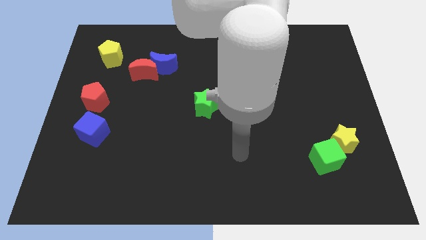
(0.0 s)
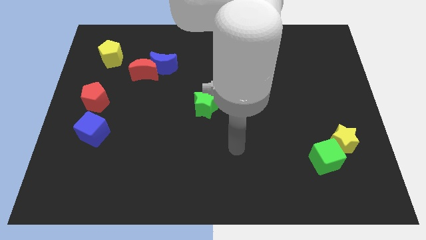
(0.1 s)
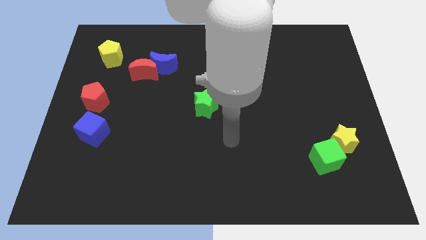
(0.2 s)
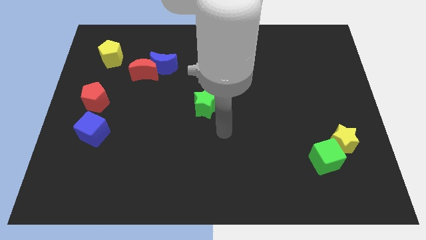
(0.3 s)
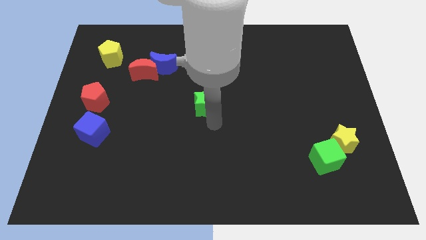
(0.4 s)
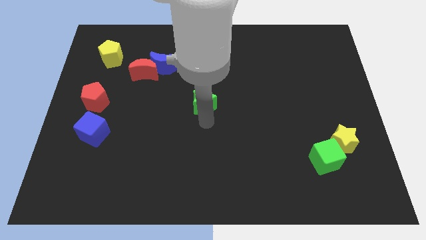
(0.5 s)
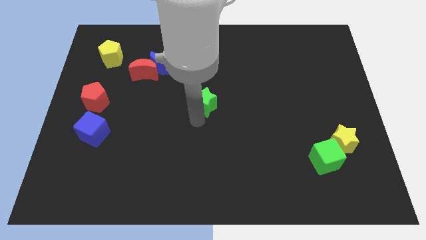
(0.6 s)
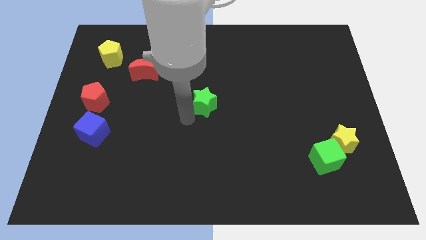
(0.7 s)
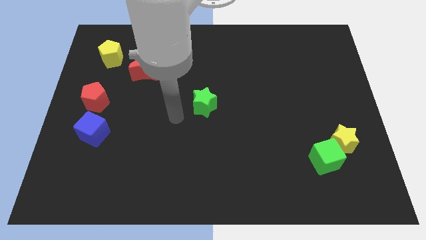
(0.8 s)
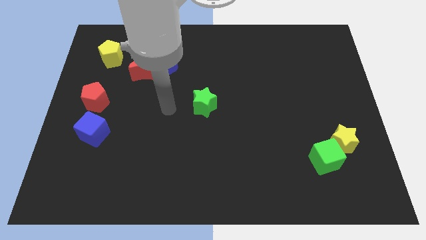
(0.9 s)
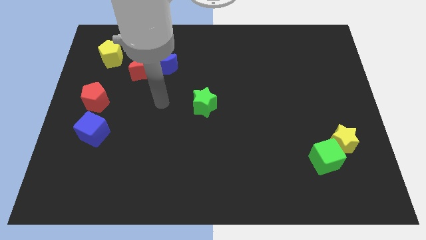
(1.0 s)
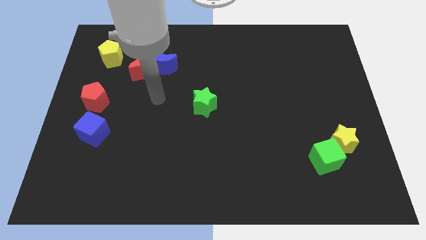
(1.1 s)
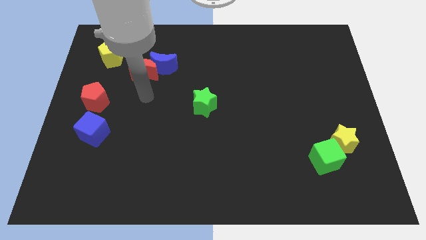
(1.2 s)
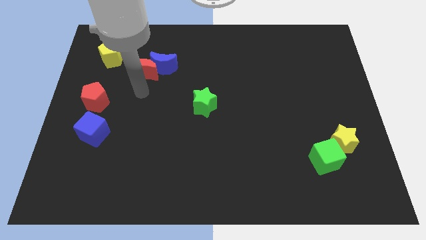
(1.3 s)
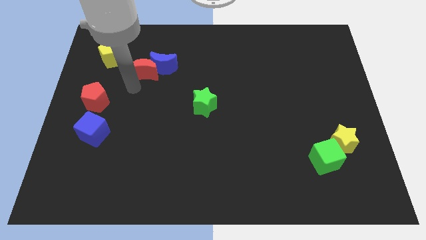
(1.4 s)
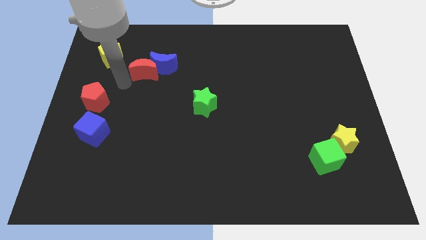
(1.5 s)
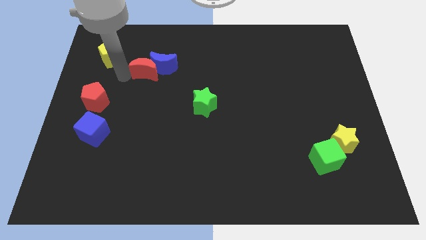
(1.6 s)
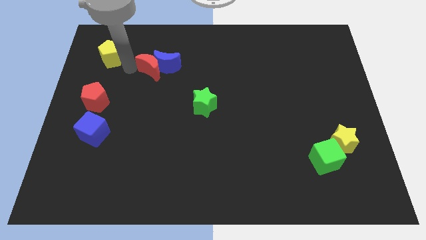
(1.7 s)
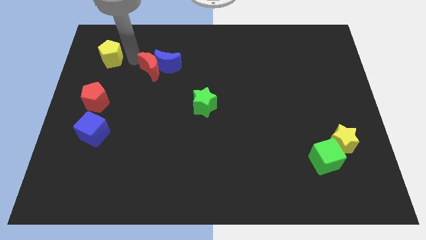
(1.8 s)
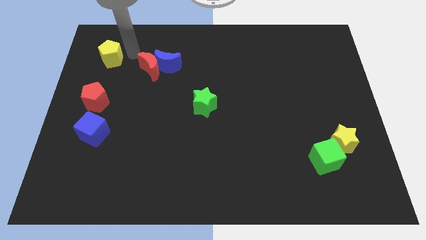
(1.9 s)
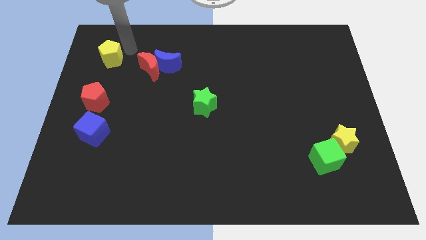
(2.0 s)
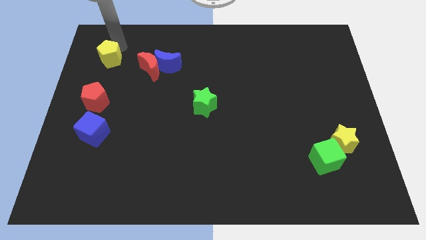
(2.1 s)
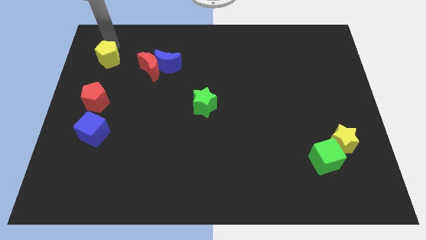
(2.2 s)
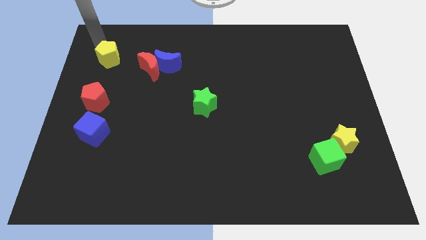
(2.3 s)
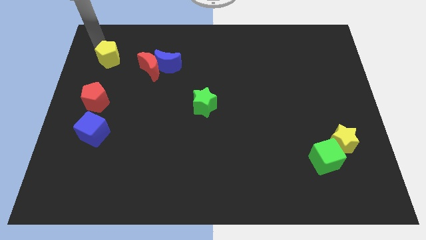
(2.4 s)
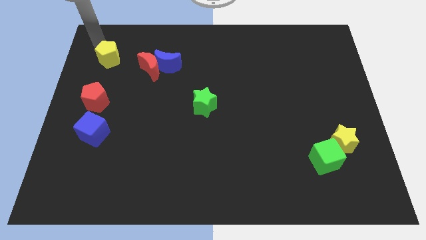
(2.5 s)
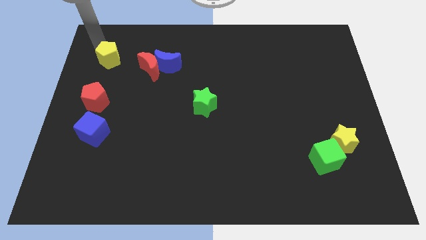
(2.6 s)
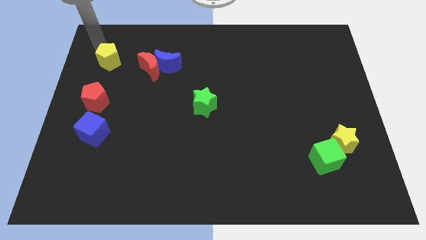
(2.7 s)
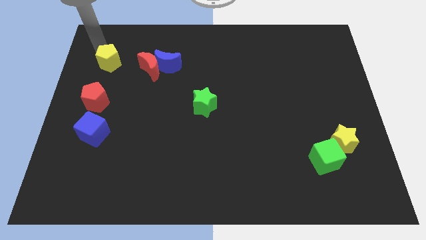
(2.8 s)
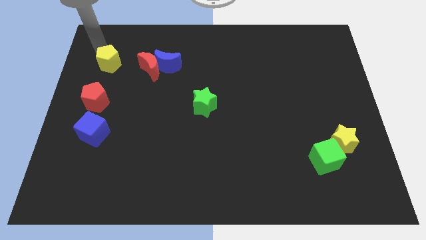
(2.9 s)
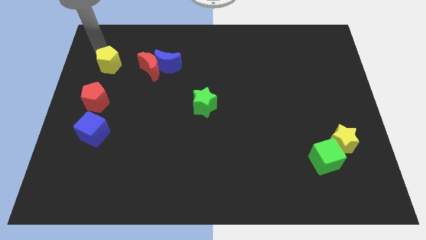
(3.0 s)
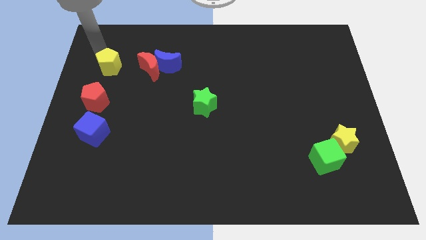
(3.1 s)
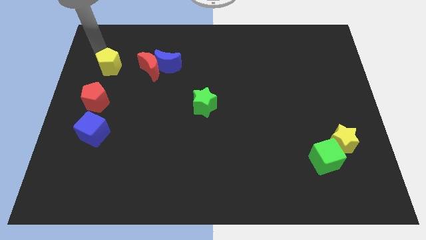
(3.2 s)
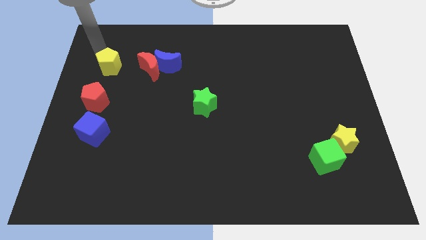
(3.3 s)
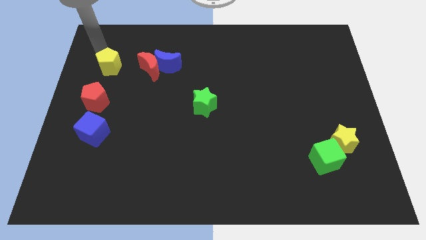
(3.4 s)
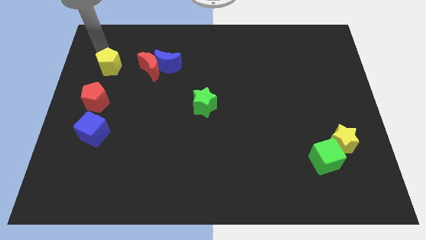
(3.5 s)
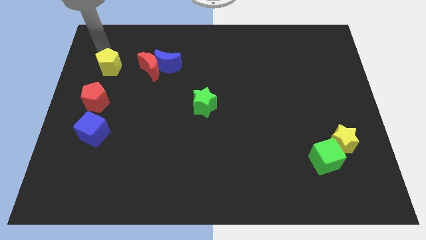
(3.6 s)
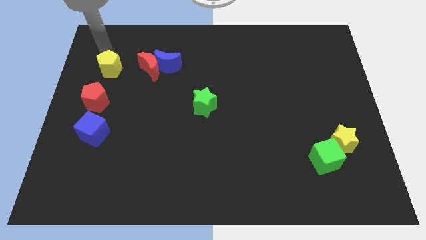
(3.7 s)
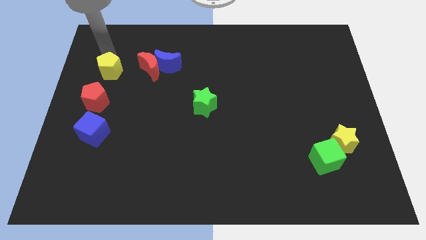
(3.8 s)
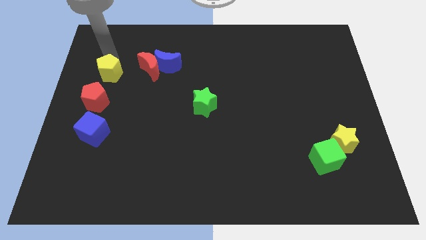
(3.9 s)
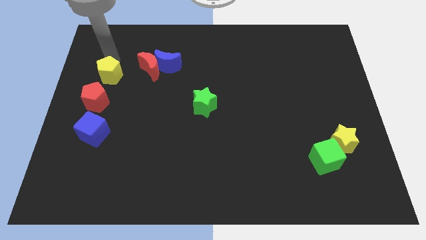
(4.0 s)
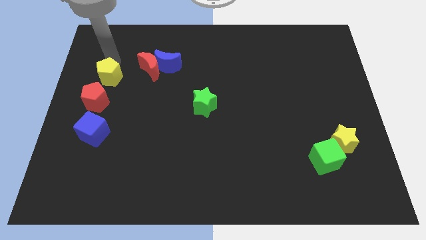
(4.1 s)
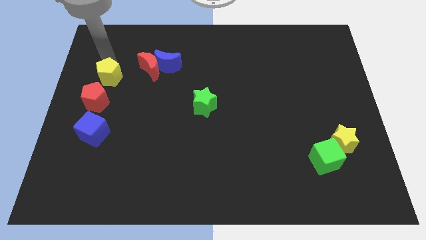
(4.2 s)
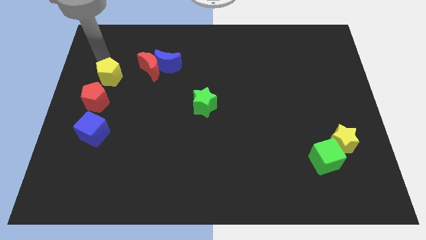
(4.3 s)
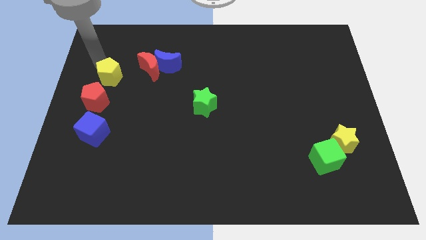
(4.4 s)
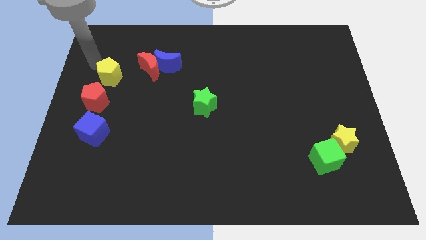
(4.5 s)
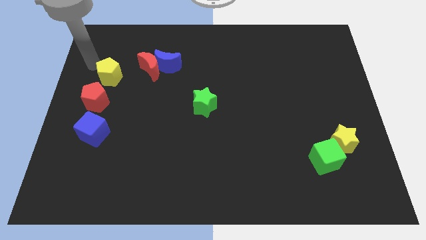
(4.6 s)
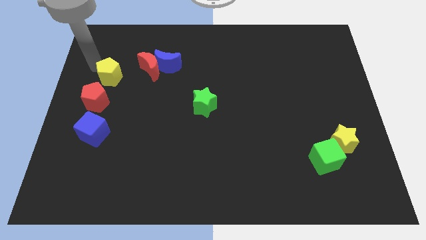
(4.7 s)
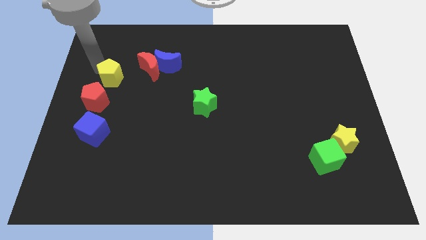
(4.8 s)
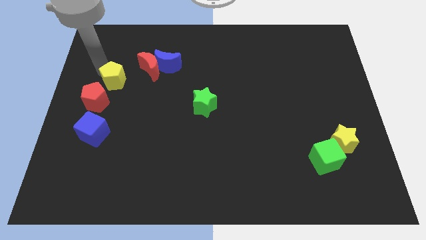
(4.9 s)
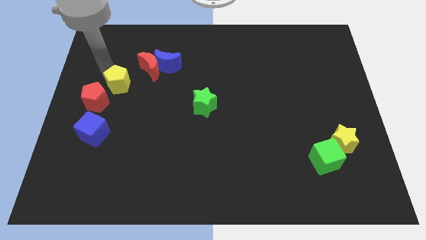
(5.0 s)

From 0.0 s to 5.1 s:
push the yellow pentagon downwards and then right a little

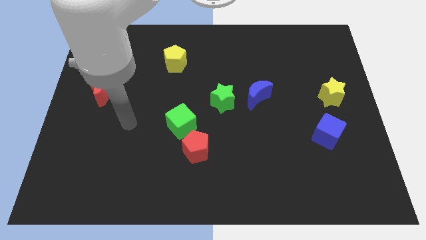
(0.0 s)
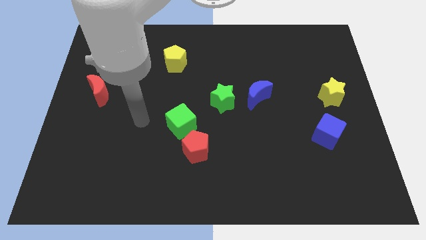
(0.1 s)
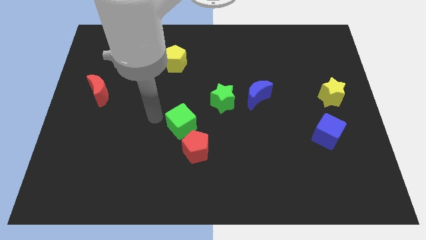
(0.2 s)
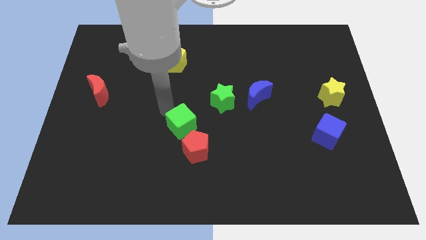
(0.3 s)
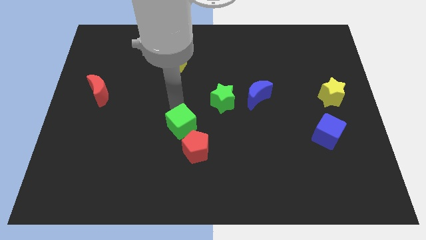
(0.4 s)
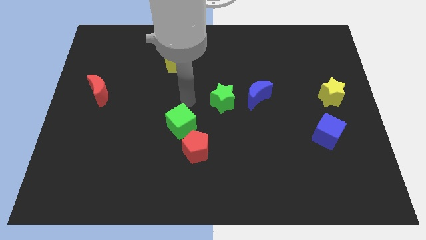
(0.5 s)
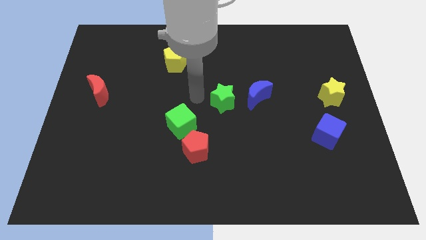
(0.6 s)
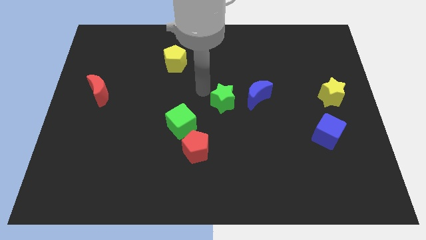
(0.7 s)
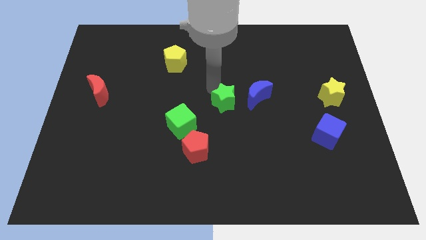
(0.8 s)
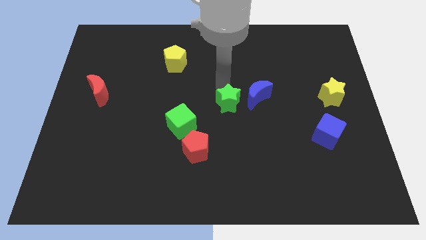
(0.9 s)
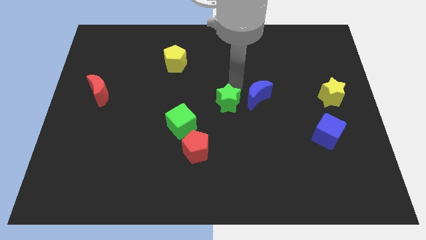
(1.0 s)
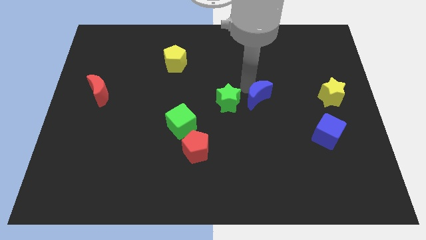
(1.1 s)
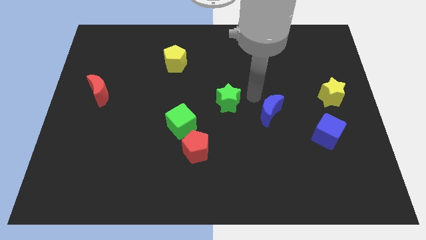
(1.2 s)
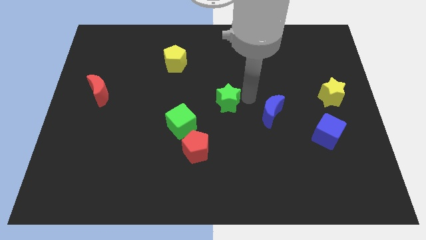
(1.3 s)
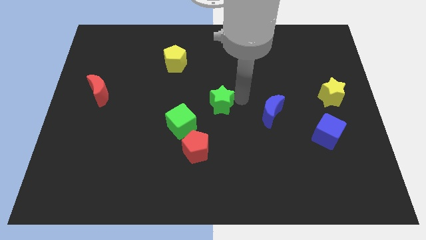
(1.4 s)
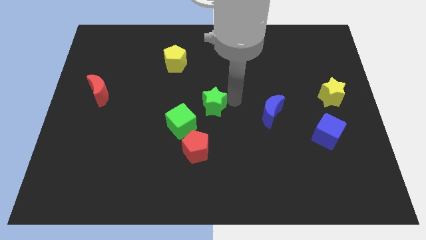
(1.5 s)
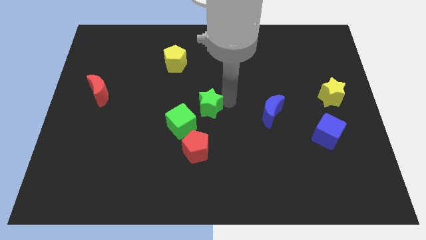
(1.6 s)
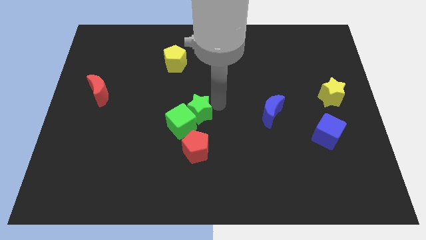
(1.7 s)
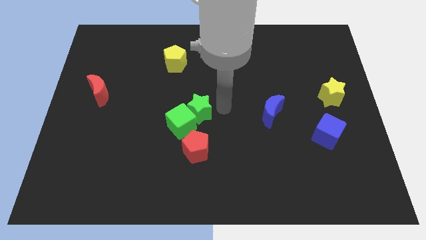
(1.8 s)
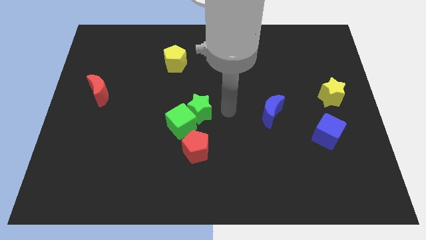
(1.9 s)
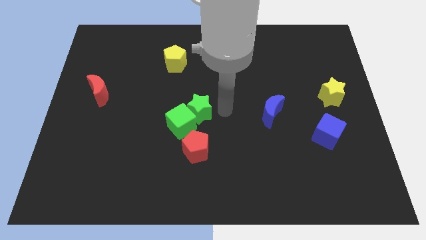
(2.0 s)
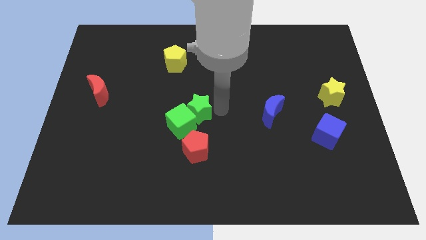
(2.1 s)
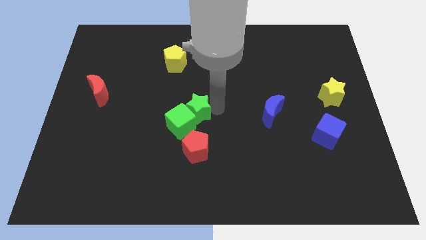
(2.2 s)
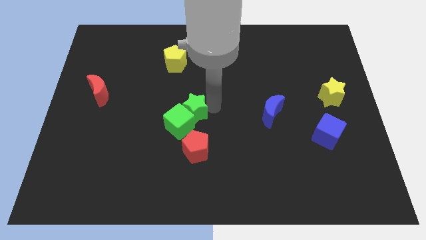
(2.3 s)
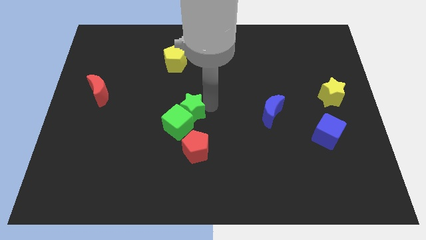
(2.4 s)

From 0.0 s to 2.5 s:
slightly slide the green star downwards and then left

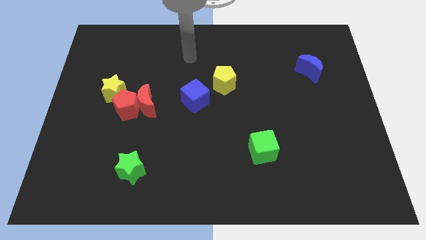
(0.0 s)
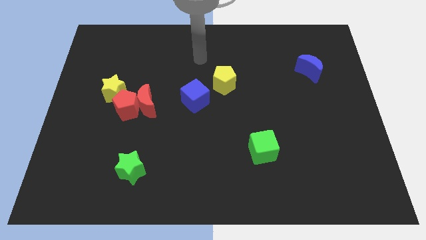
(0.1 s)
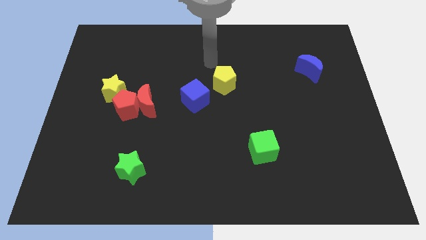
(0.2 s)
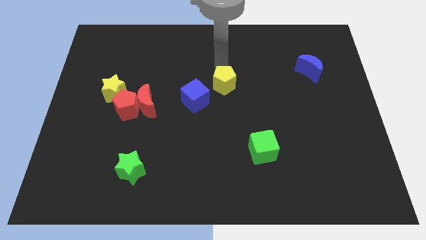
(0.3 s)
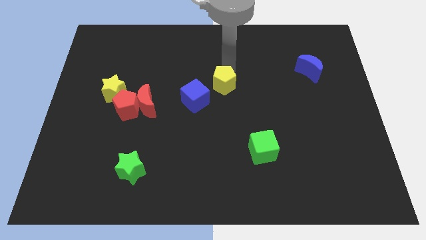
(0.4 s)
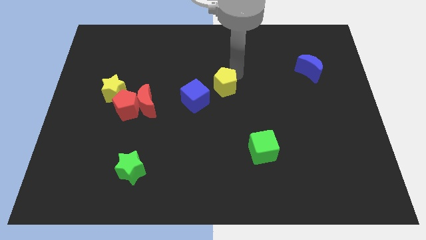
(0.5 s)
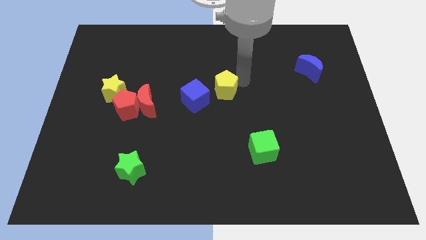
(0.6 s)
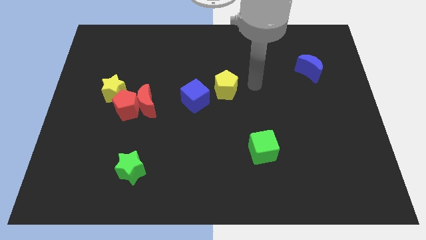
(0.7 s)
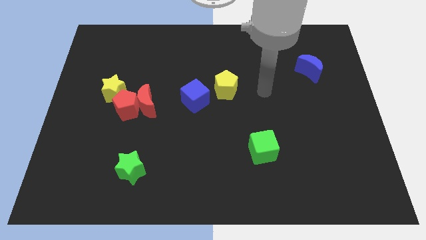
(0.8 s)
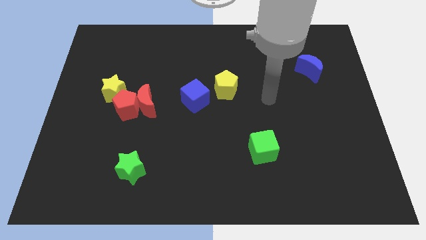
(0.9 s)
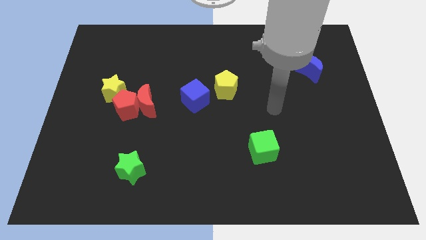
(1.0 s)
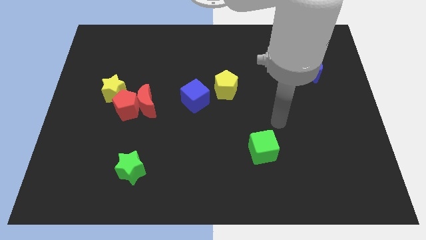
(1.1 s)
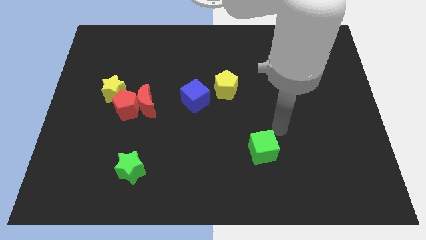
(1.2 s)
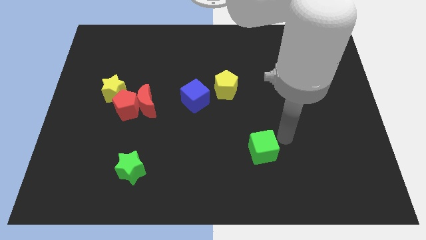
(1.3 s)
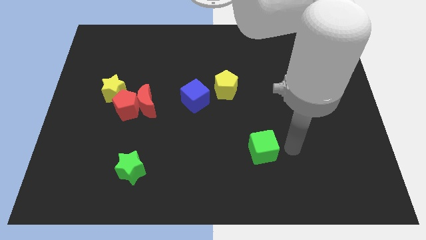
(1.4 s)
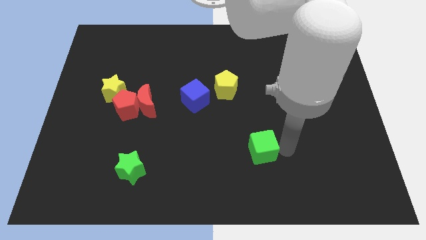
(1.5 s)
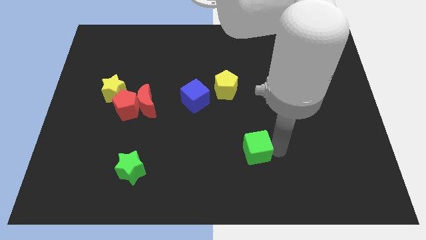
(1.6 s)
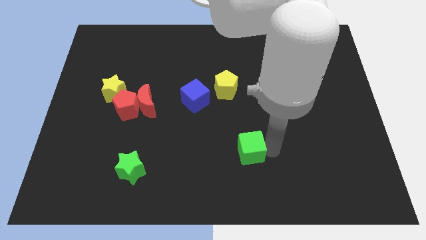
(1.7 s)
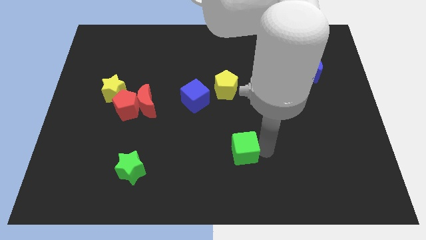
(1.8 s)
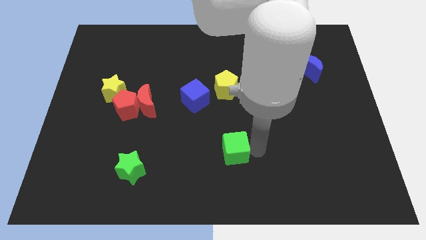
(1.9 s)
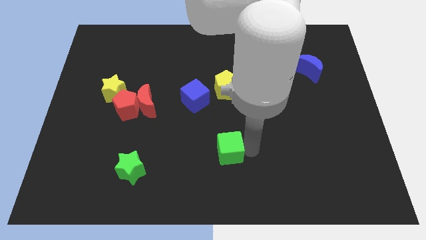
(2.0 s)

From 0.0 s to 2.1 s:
slide the green cube a little to the left
